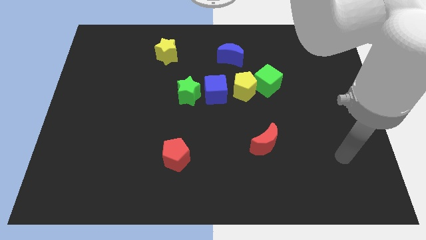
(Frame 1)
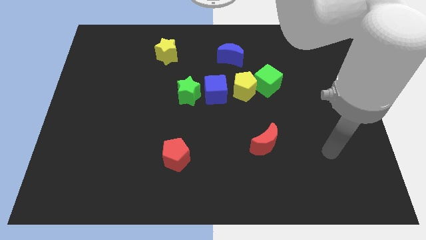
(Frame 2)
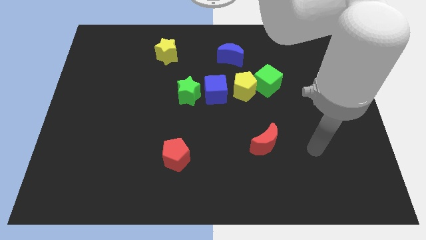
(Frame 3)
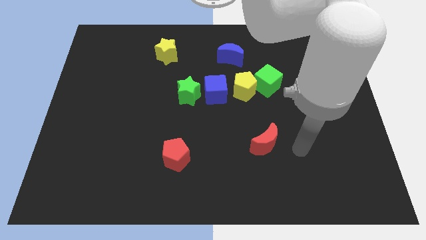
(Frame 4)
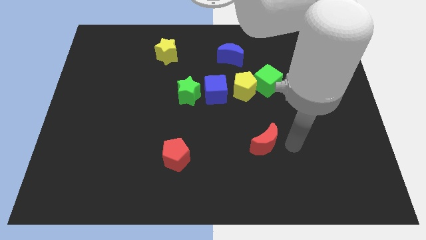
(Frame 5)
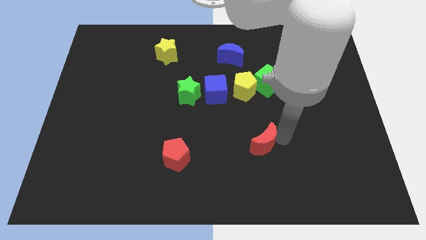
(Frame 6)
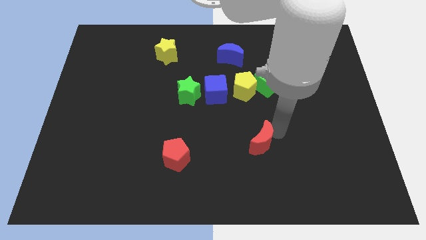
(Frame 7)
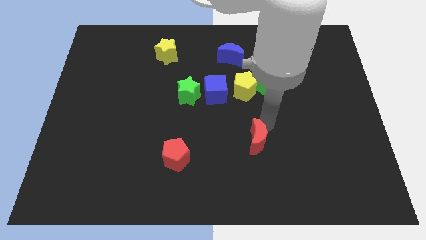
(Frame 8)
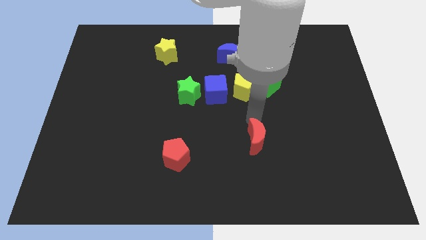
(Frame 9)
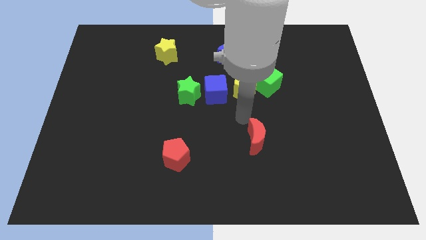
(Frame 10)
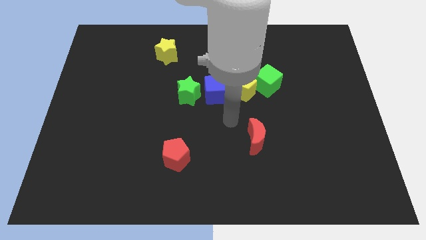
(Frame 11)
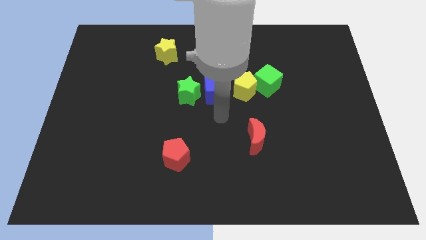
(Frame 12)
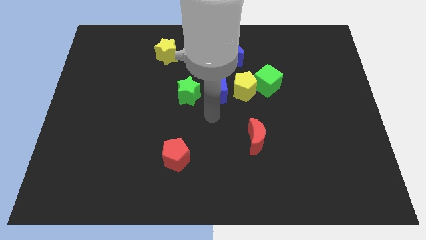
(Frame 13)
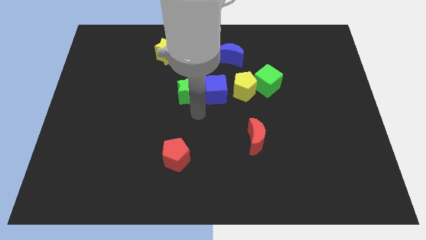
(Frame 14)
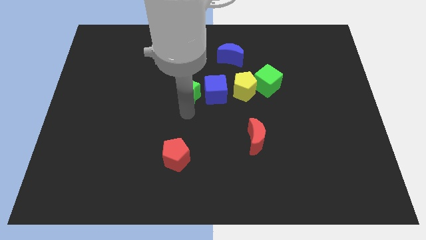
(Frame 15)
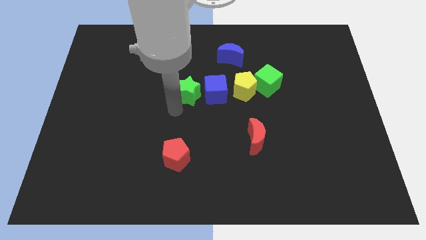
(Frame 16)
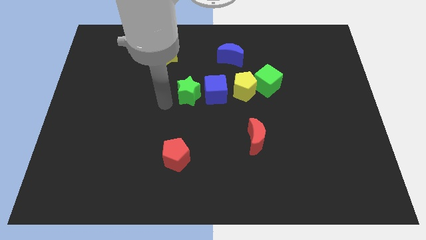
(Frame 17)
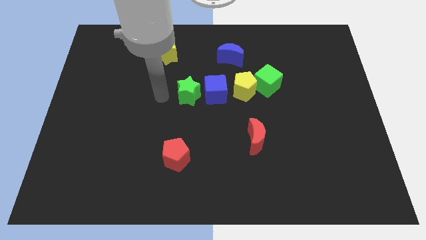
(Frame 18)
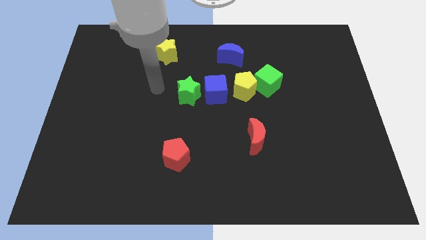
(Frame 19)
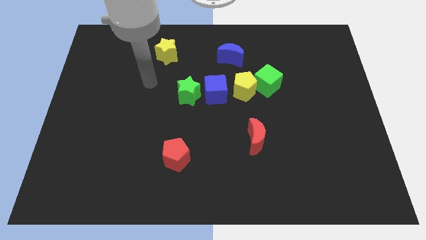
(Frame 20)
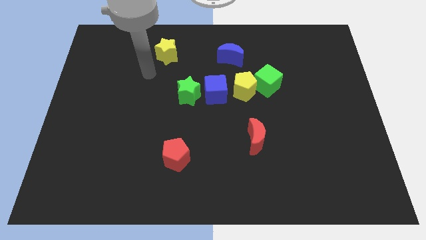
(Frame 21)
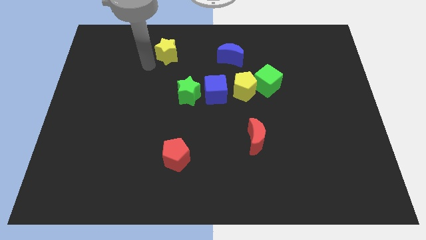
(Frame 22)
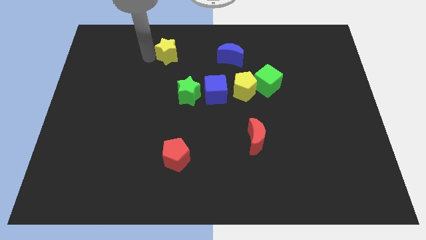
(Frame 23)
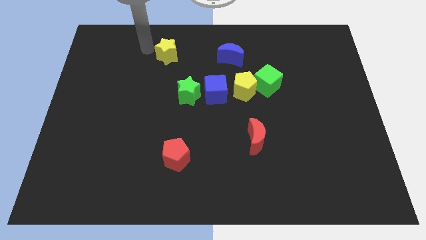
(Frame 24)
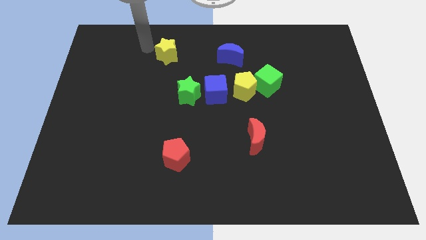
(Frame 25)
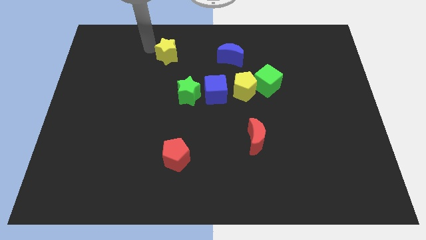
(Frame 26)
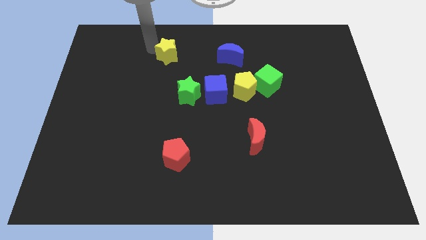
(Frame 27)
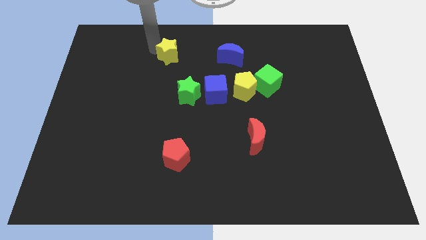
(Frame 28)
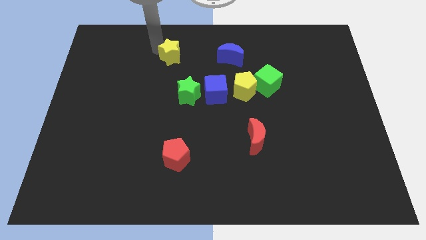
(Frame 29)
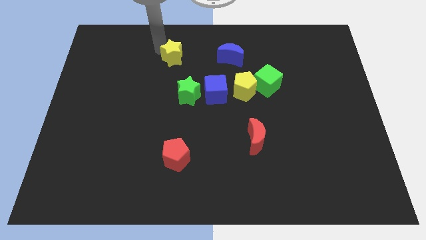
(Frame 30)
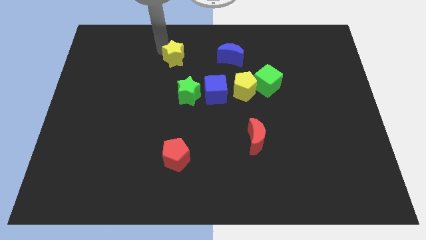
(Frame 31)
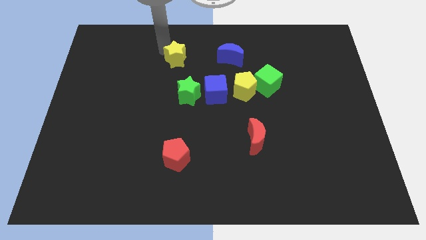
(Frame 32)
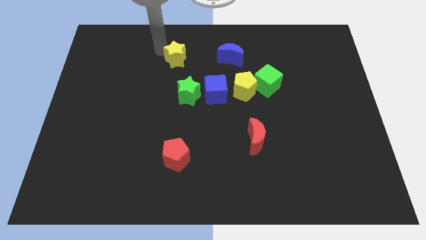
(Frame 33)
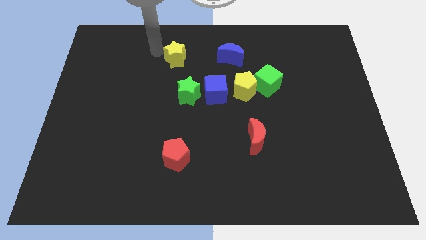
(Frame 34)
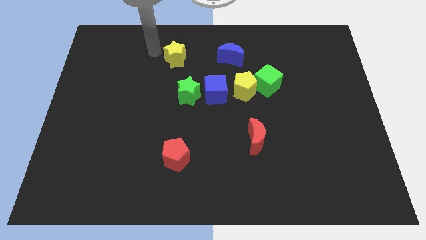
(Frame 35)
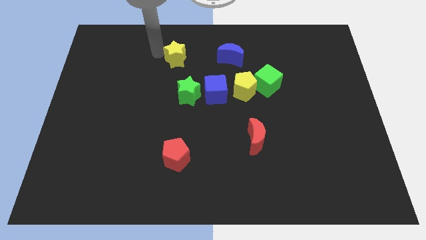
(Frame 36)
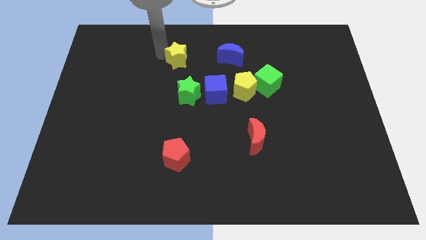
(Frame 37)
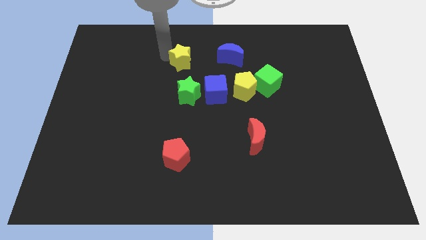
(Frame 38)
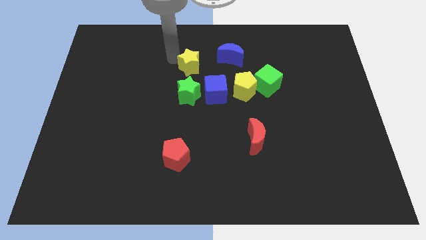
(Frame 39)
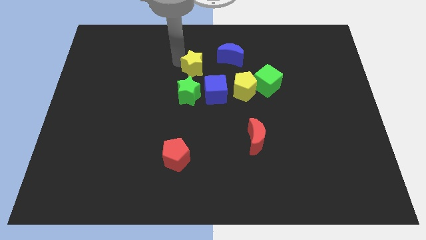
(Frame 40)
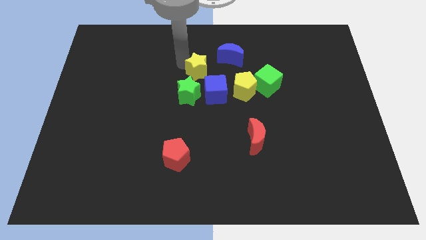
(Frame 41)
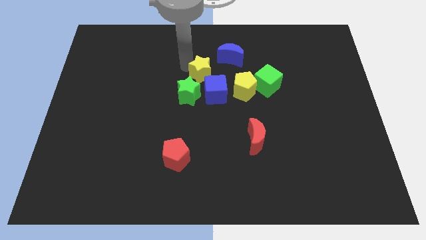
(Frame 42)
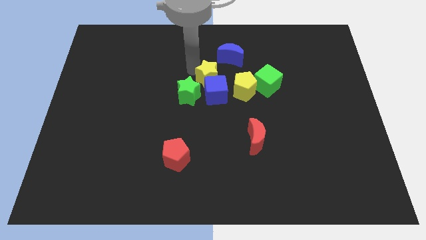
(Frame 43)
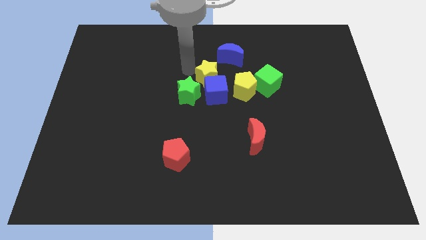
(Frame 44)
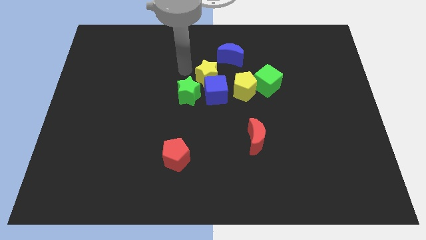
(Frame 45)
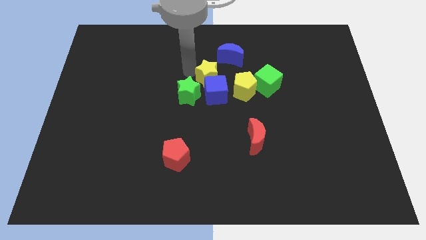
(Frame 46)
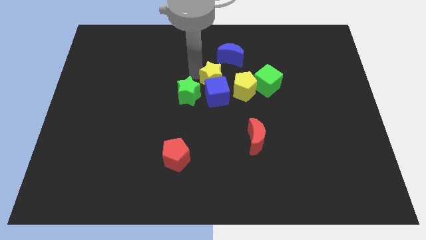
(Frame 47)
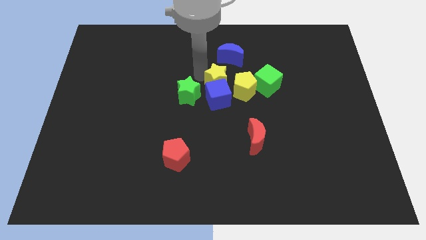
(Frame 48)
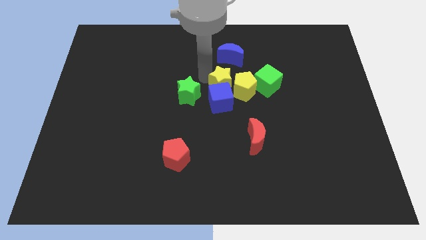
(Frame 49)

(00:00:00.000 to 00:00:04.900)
push the yellow star next to the yellow pentagon

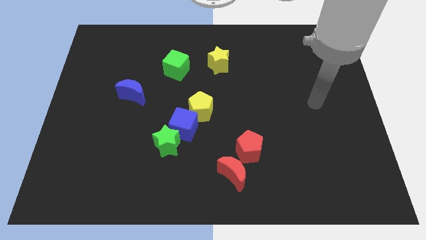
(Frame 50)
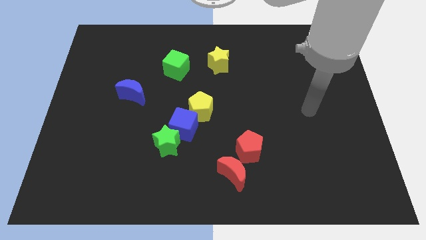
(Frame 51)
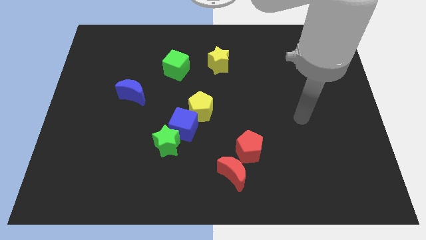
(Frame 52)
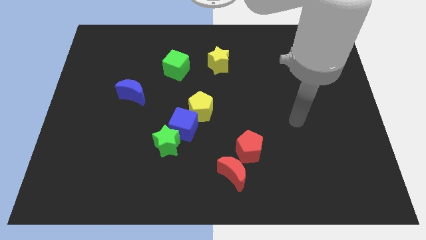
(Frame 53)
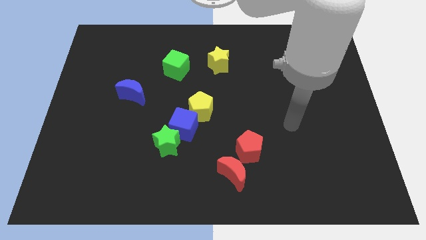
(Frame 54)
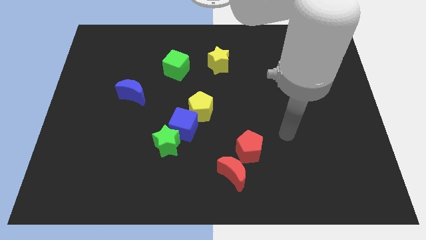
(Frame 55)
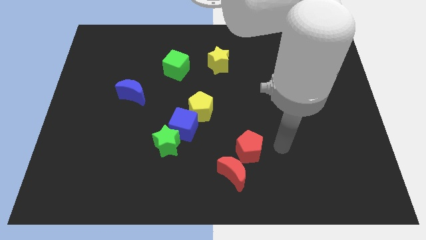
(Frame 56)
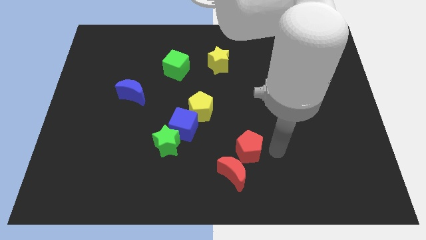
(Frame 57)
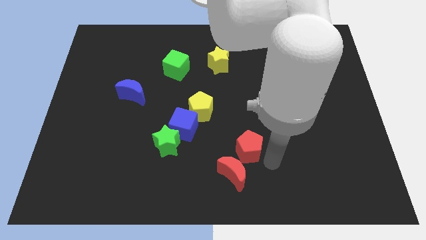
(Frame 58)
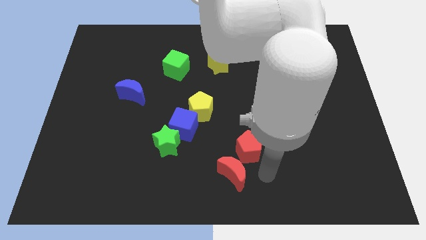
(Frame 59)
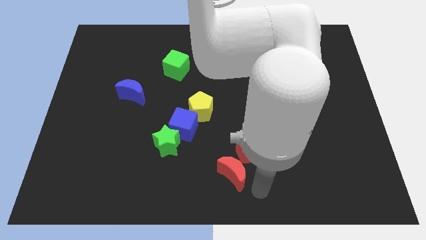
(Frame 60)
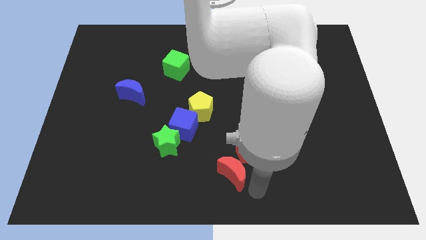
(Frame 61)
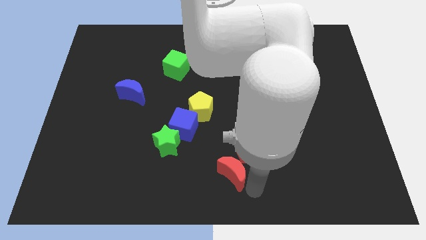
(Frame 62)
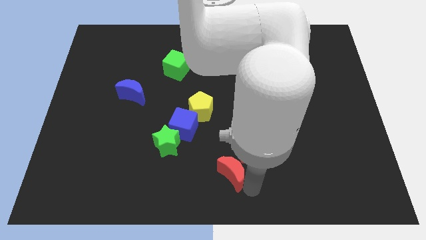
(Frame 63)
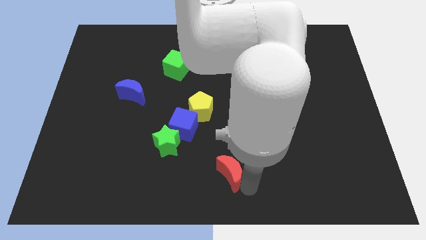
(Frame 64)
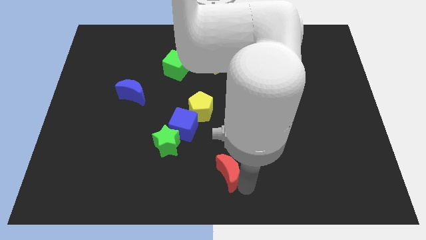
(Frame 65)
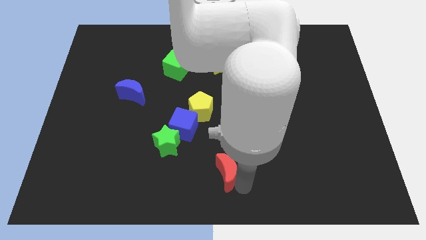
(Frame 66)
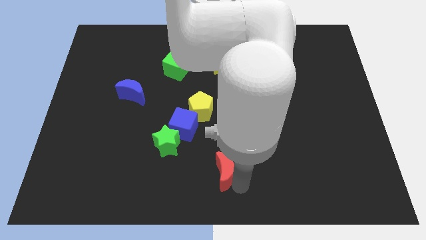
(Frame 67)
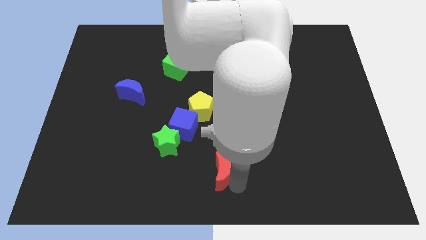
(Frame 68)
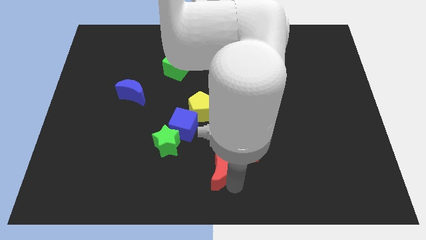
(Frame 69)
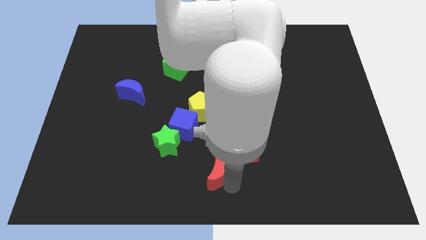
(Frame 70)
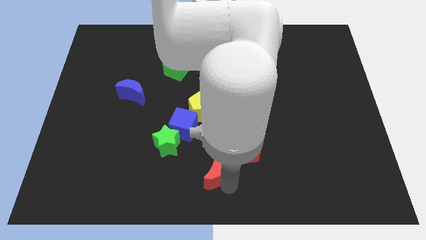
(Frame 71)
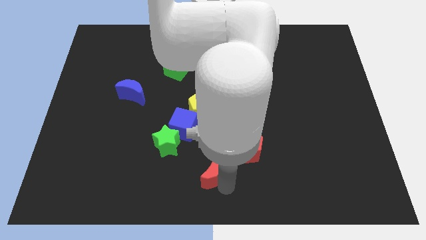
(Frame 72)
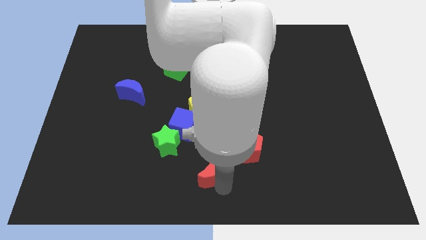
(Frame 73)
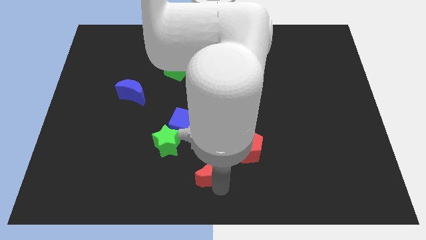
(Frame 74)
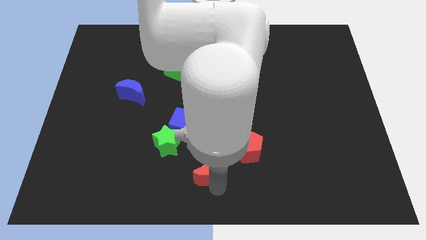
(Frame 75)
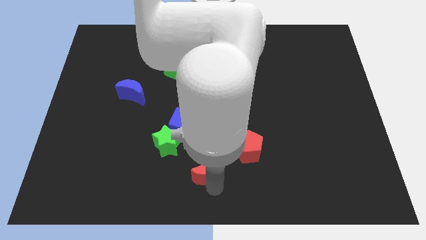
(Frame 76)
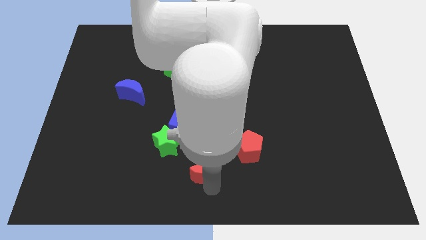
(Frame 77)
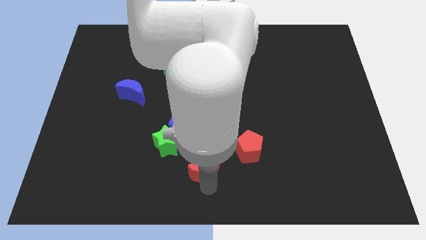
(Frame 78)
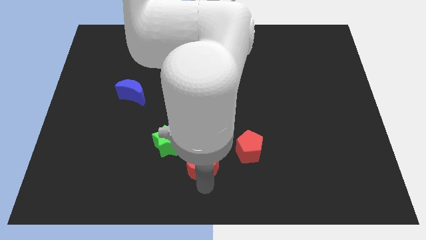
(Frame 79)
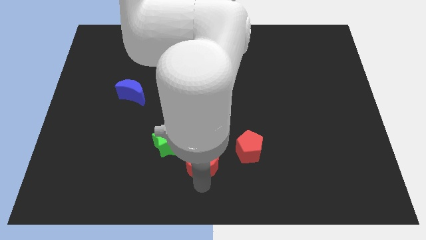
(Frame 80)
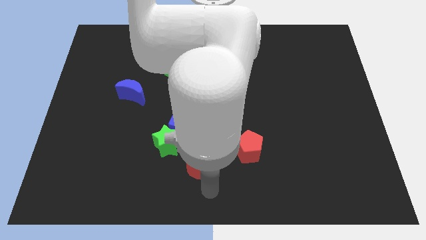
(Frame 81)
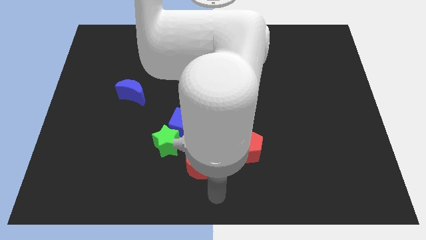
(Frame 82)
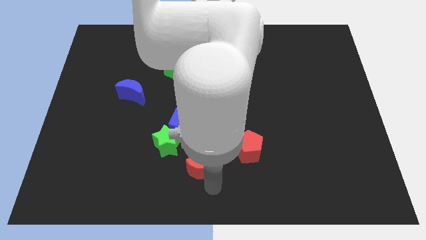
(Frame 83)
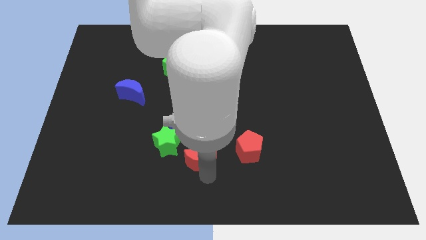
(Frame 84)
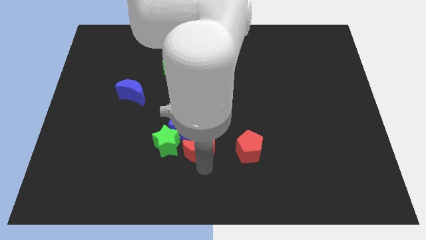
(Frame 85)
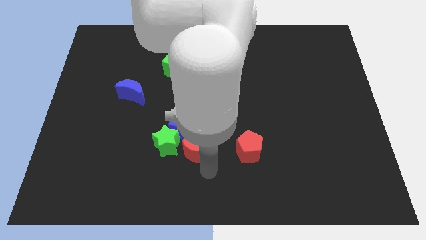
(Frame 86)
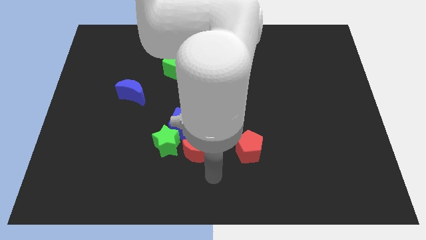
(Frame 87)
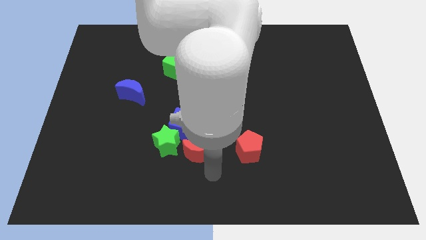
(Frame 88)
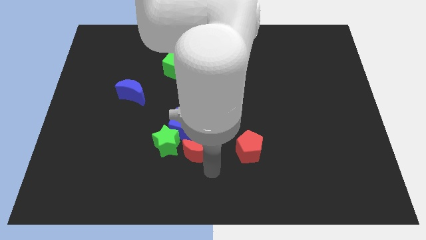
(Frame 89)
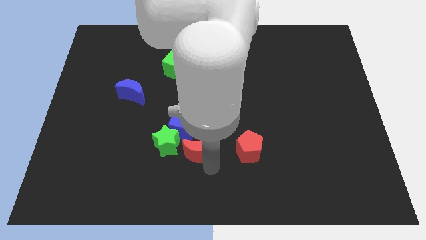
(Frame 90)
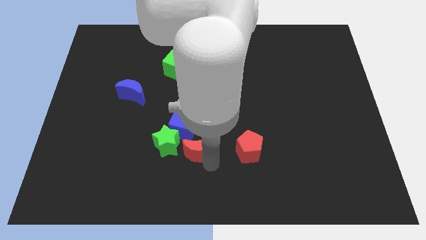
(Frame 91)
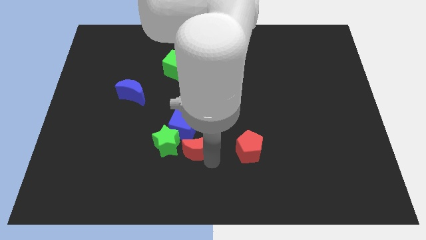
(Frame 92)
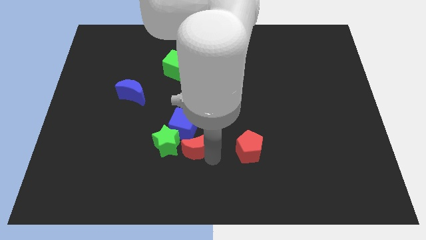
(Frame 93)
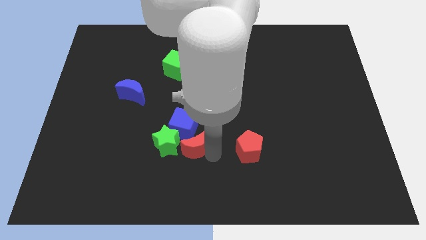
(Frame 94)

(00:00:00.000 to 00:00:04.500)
slide the red moon to the blue cube
